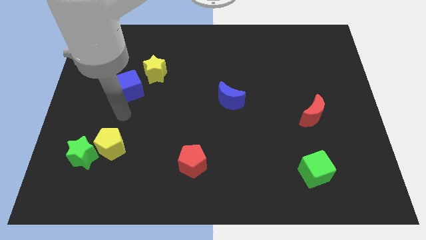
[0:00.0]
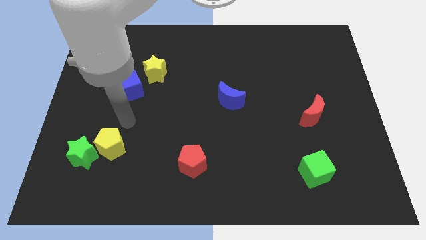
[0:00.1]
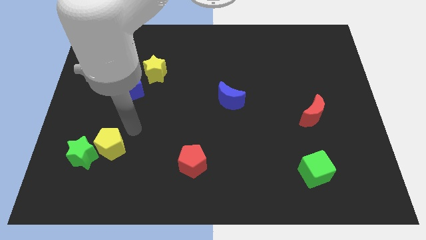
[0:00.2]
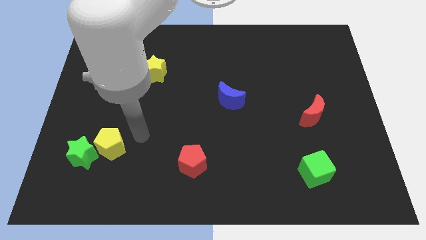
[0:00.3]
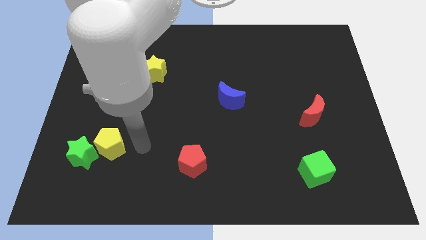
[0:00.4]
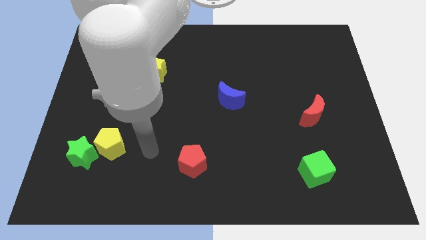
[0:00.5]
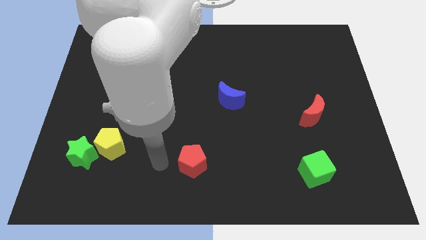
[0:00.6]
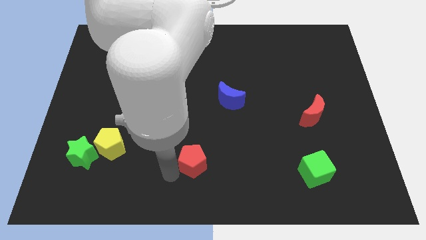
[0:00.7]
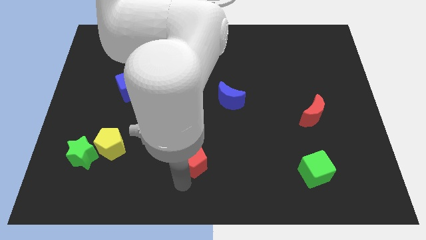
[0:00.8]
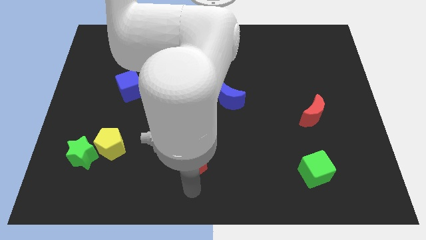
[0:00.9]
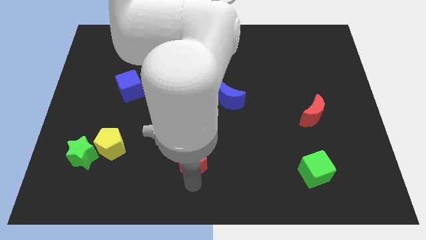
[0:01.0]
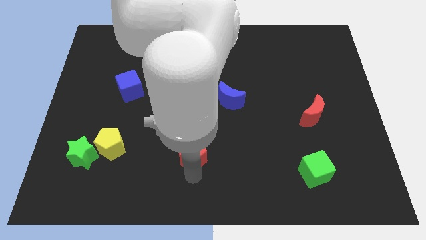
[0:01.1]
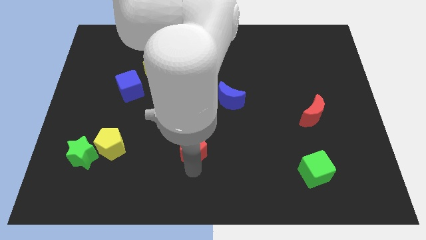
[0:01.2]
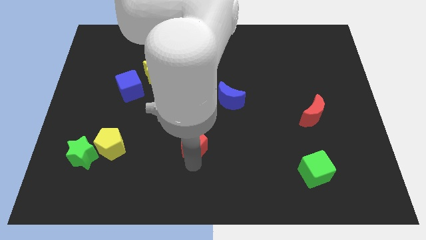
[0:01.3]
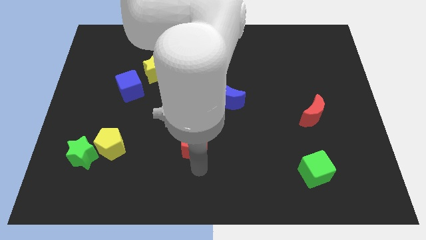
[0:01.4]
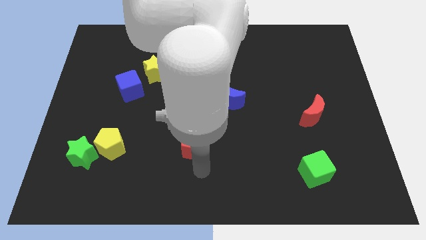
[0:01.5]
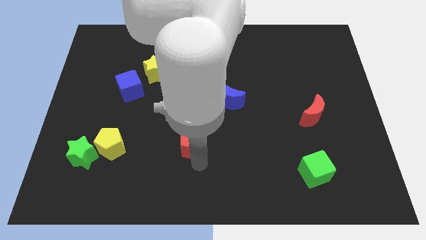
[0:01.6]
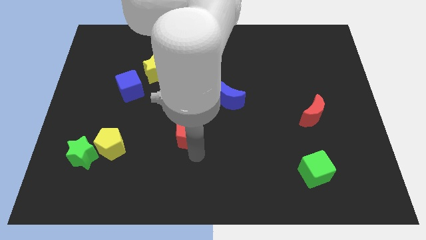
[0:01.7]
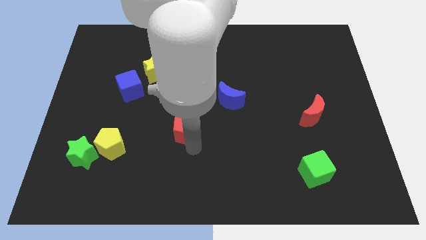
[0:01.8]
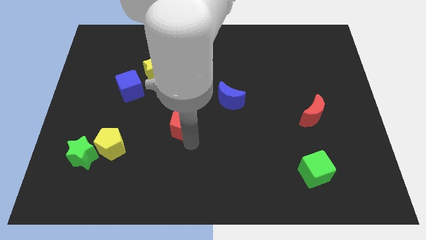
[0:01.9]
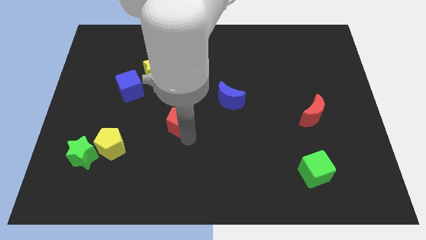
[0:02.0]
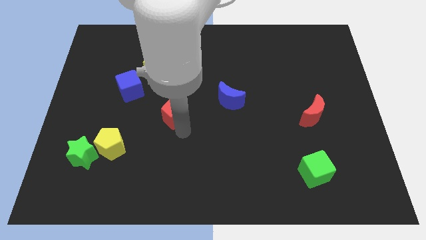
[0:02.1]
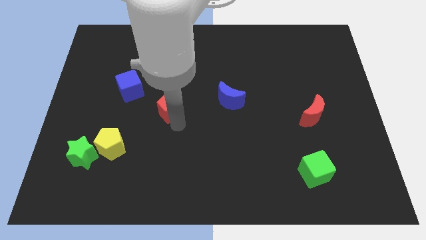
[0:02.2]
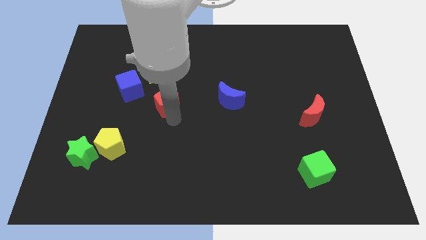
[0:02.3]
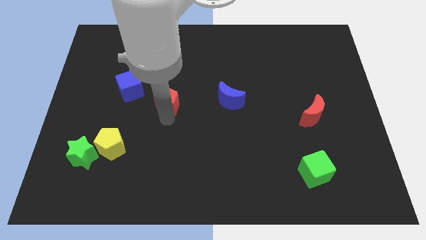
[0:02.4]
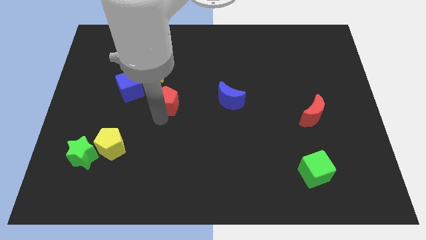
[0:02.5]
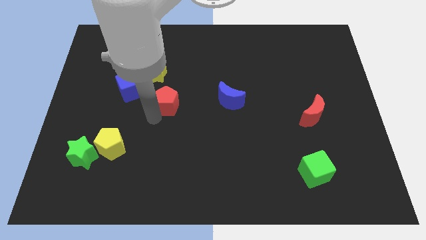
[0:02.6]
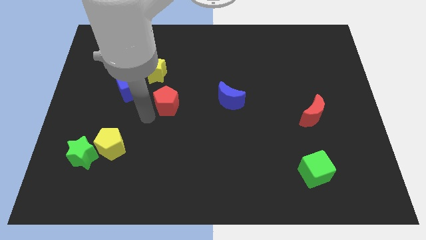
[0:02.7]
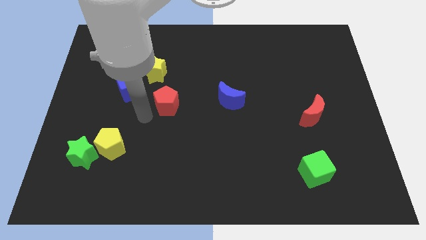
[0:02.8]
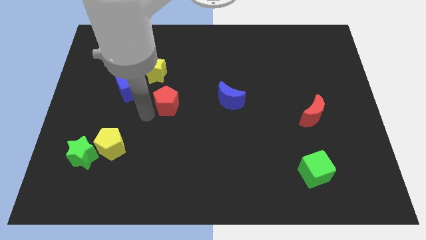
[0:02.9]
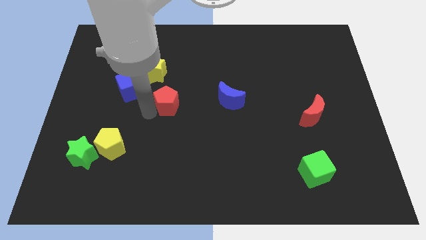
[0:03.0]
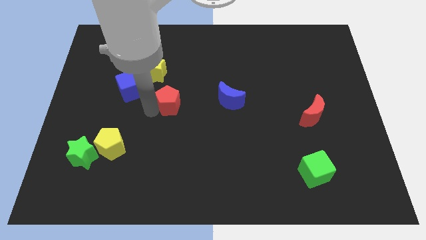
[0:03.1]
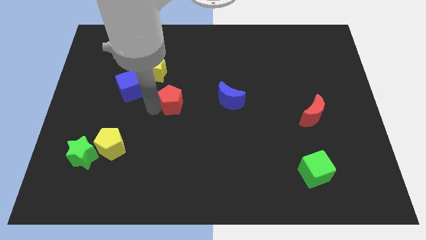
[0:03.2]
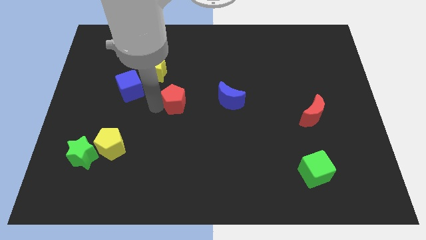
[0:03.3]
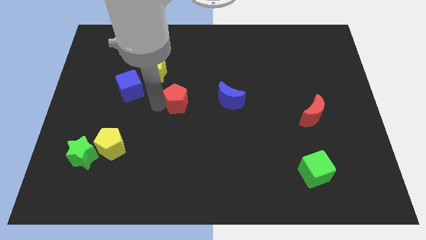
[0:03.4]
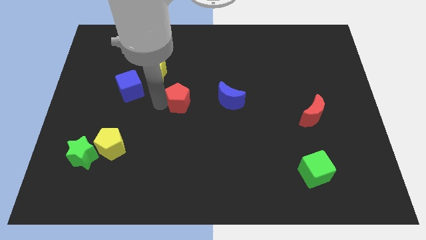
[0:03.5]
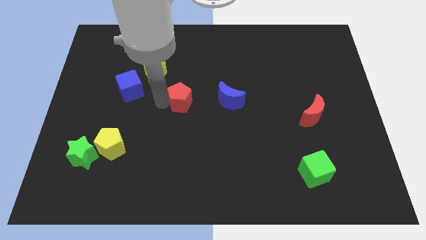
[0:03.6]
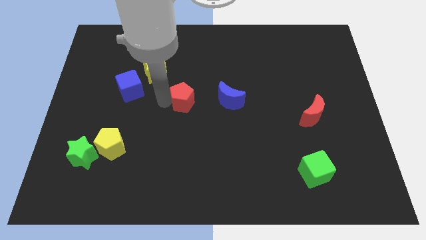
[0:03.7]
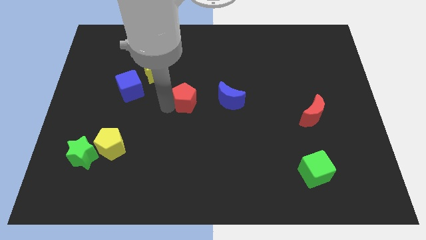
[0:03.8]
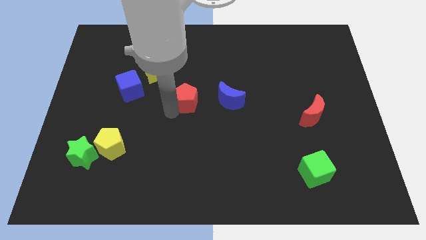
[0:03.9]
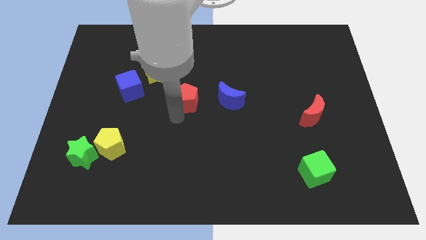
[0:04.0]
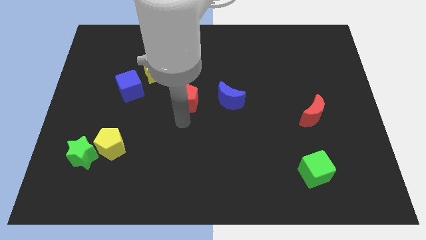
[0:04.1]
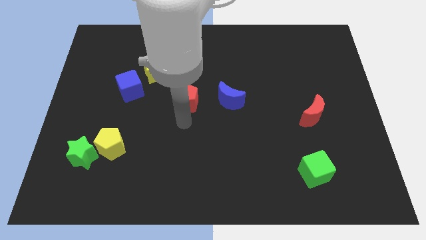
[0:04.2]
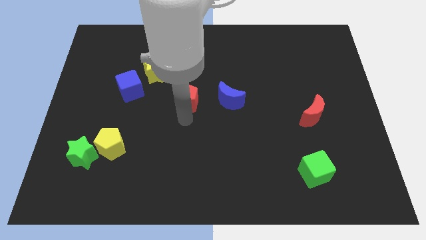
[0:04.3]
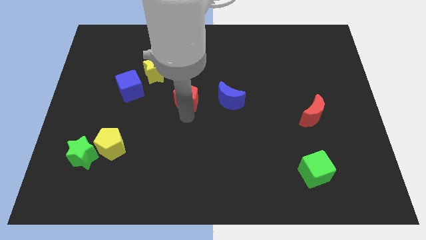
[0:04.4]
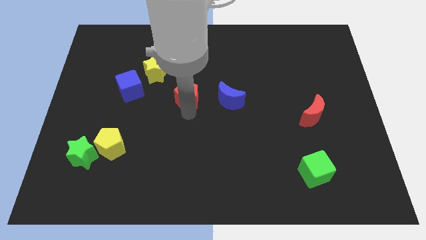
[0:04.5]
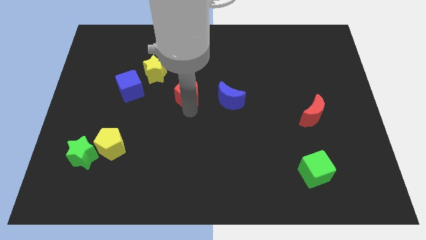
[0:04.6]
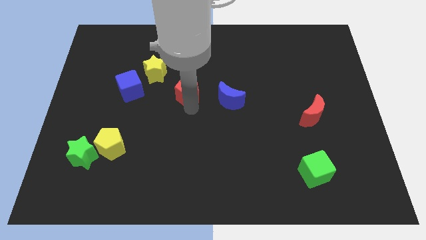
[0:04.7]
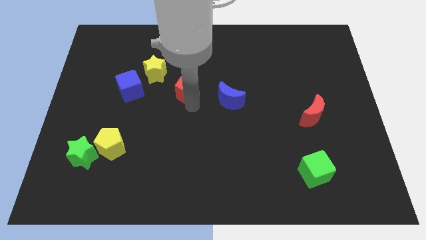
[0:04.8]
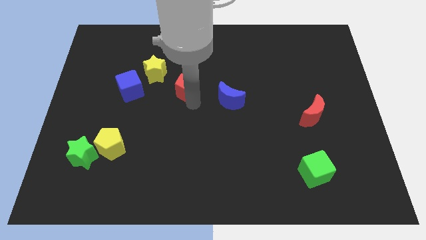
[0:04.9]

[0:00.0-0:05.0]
slide the red pentagon upwards

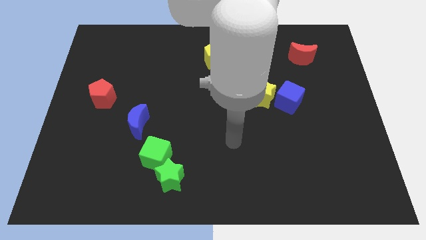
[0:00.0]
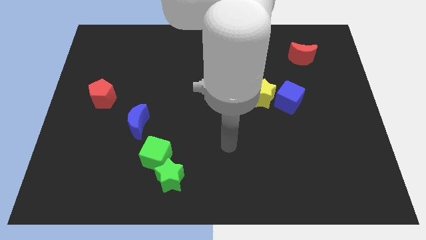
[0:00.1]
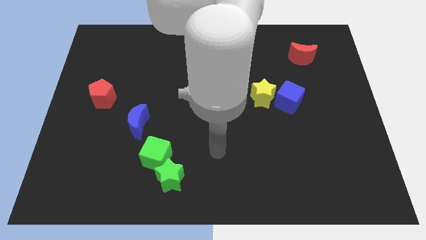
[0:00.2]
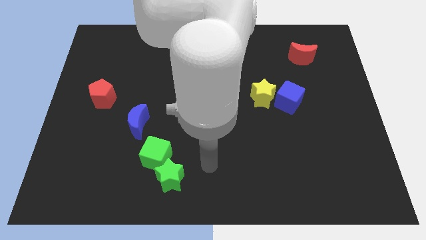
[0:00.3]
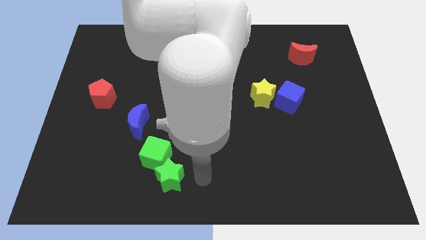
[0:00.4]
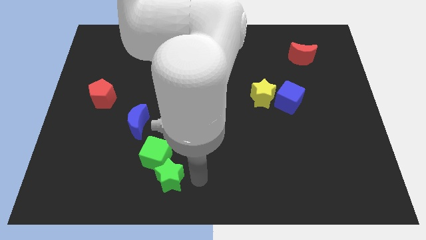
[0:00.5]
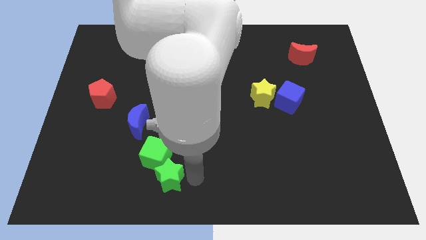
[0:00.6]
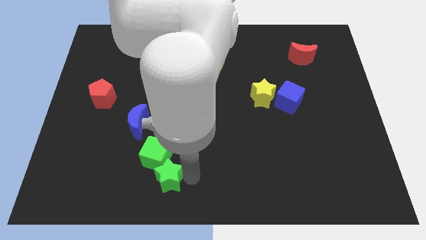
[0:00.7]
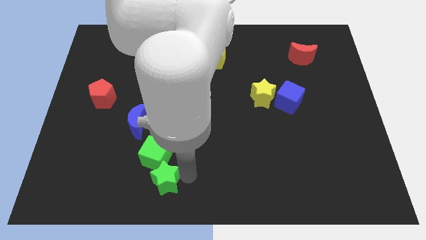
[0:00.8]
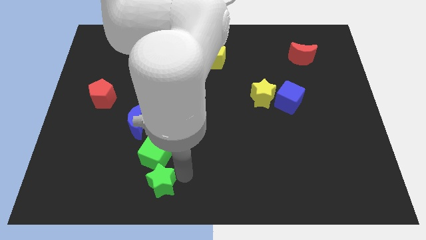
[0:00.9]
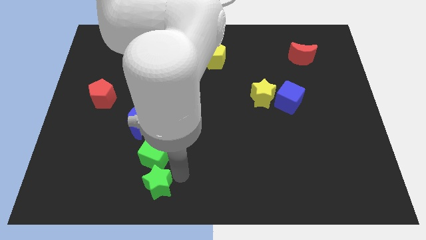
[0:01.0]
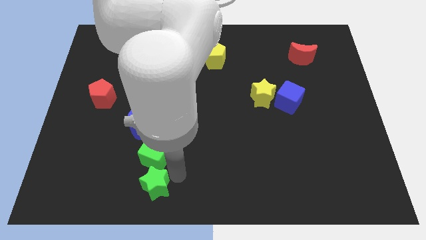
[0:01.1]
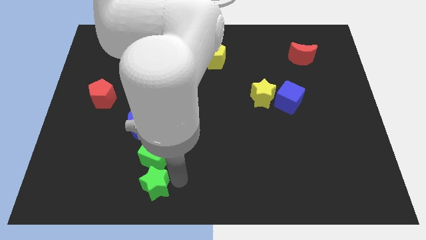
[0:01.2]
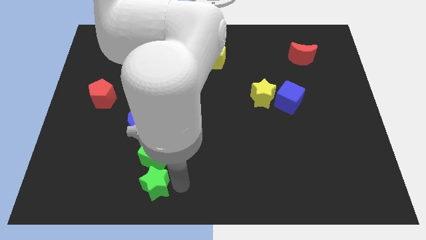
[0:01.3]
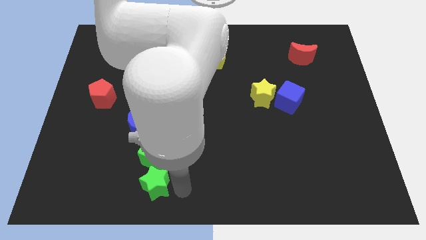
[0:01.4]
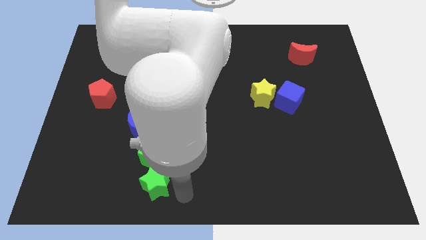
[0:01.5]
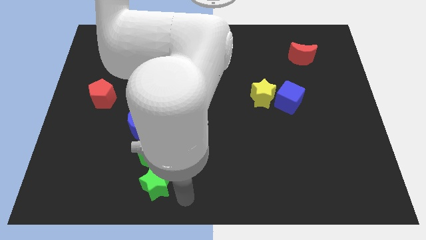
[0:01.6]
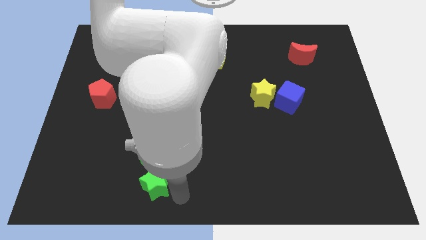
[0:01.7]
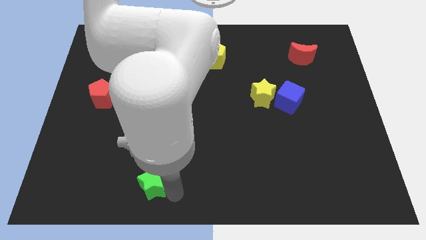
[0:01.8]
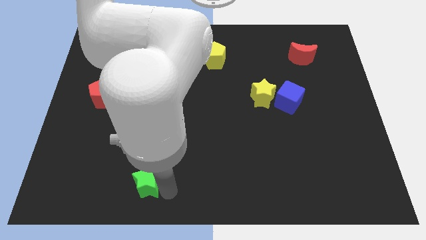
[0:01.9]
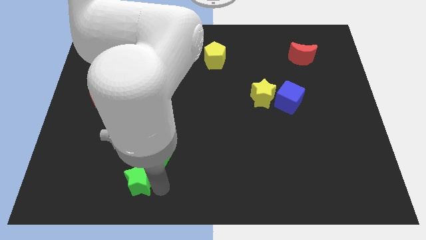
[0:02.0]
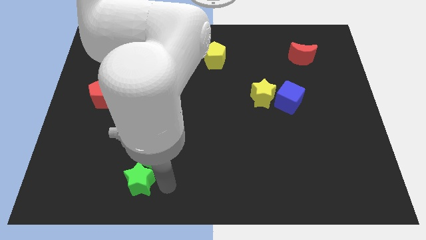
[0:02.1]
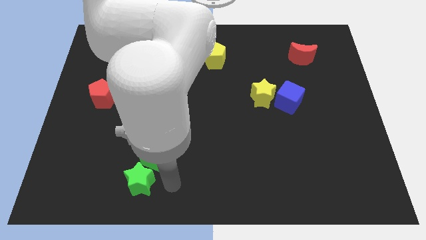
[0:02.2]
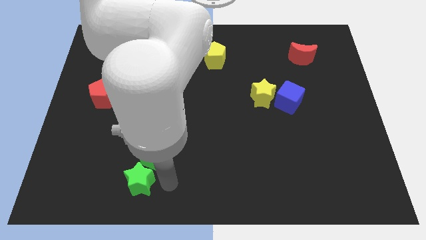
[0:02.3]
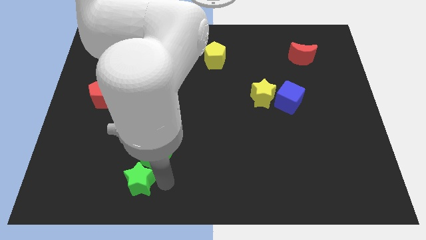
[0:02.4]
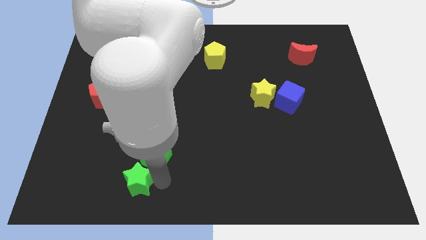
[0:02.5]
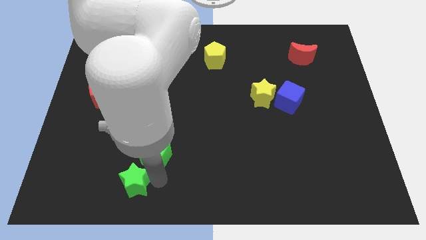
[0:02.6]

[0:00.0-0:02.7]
push the green star a little to the left

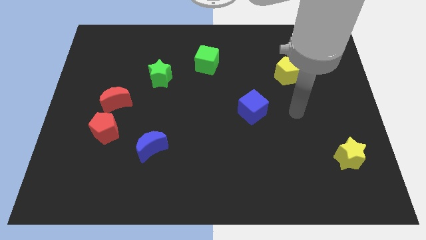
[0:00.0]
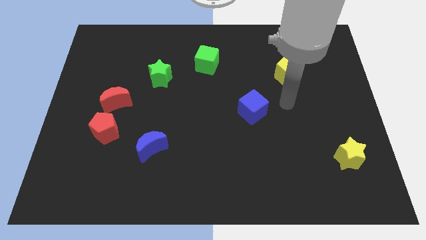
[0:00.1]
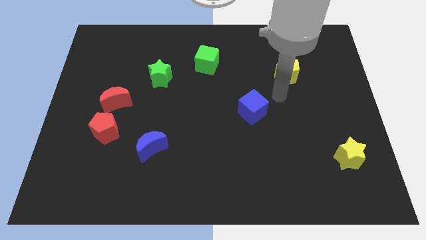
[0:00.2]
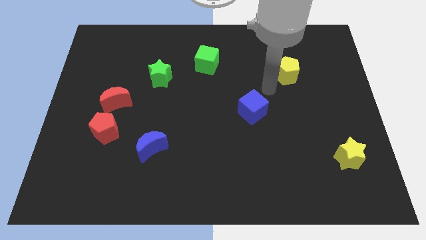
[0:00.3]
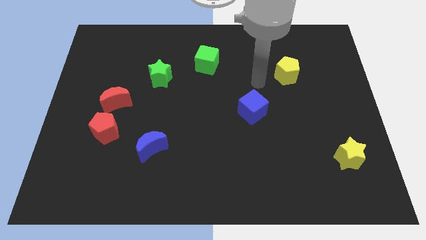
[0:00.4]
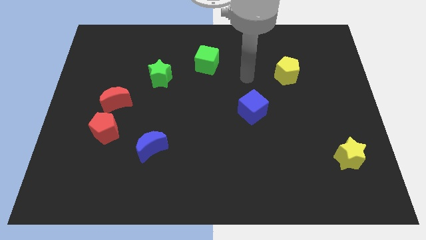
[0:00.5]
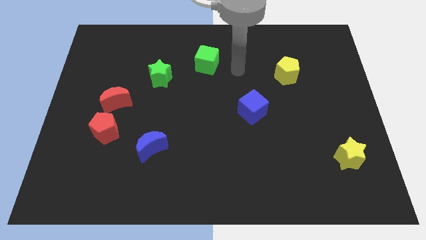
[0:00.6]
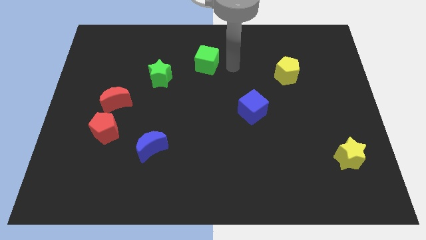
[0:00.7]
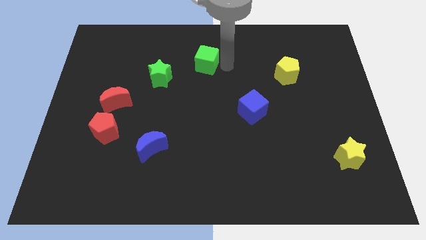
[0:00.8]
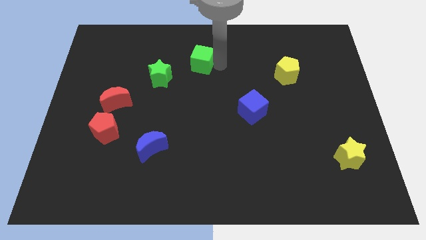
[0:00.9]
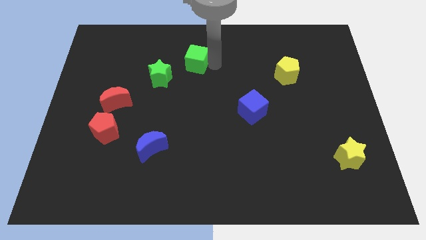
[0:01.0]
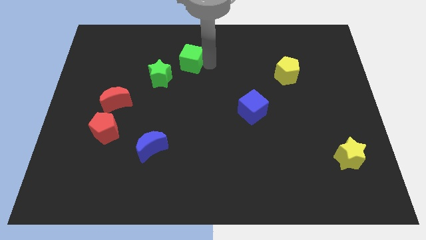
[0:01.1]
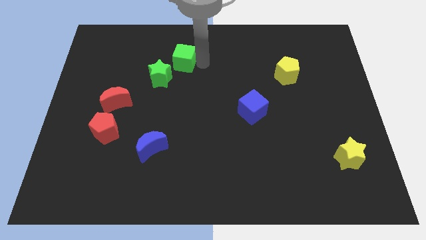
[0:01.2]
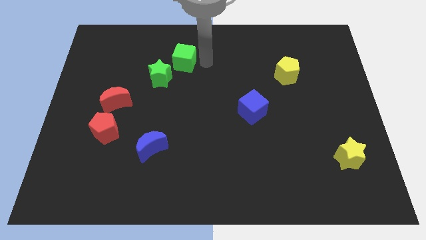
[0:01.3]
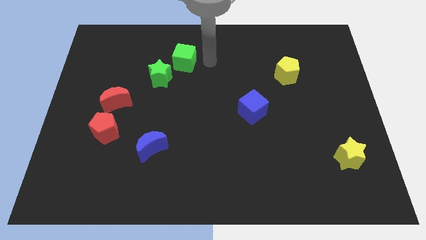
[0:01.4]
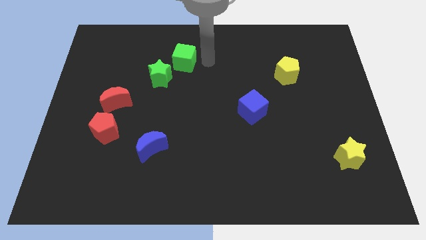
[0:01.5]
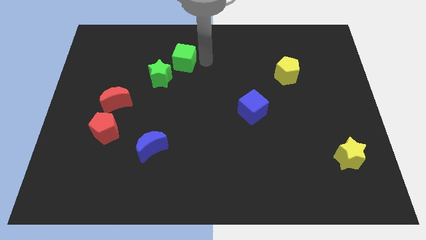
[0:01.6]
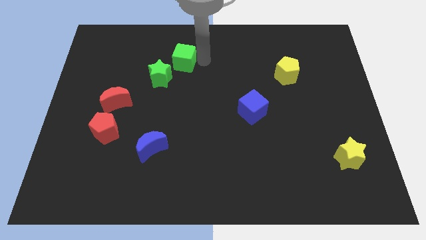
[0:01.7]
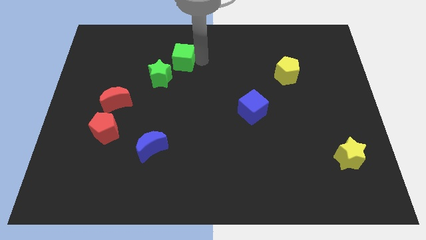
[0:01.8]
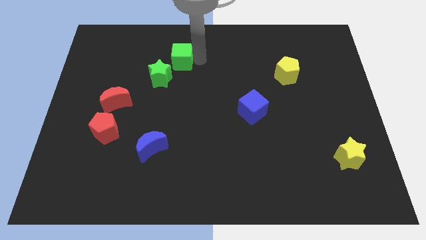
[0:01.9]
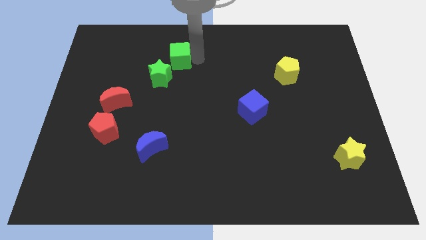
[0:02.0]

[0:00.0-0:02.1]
slightly push the green cube to the left
